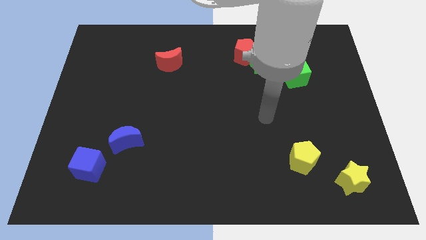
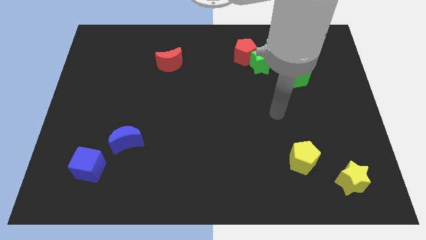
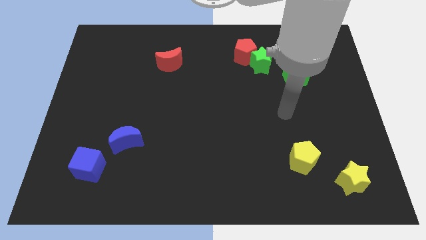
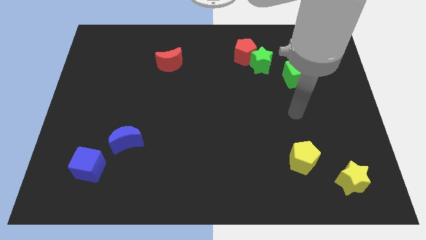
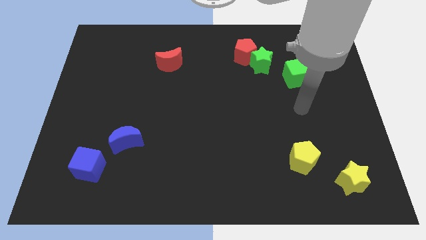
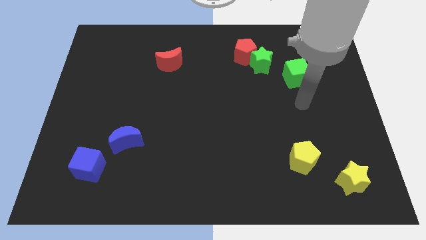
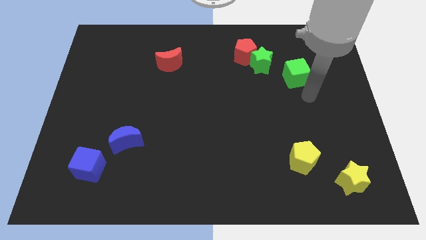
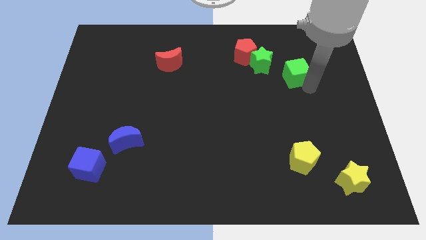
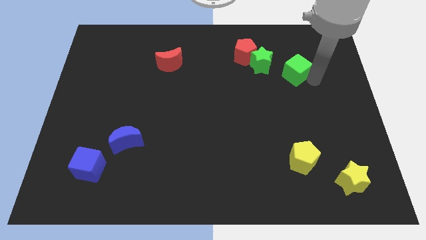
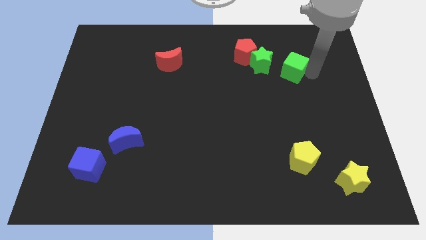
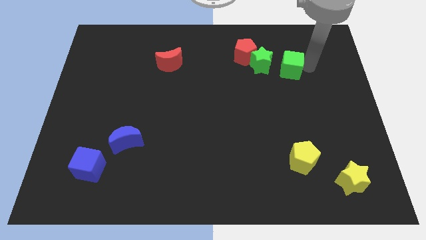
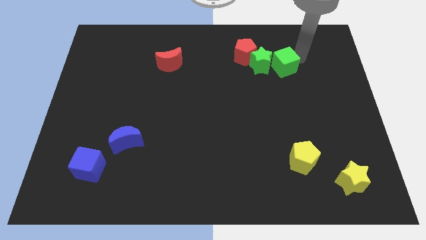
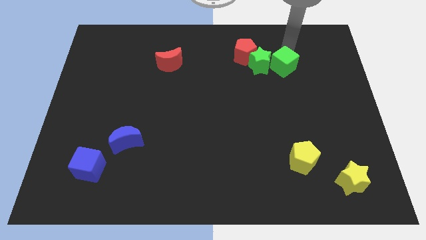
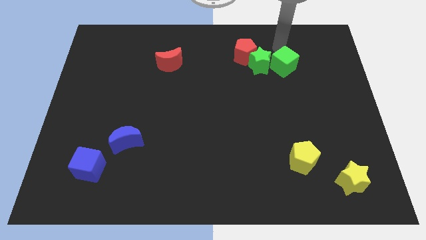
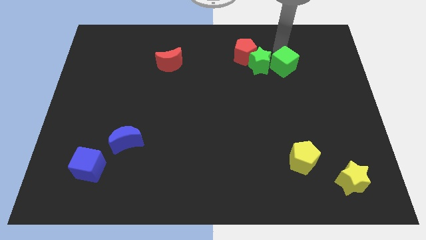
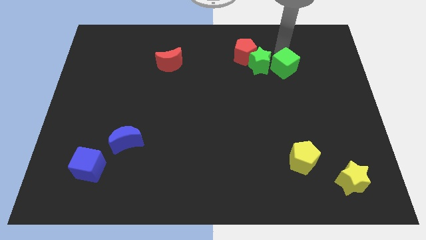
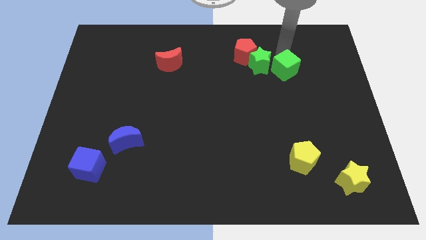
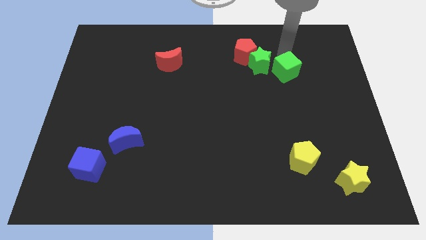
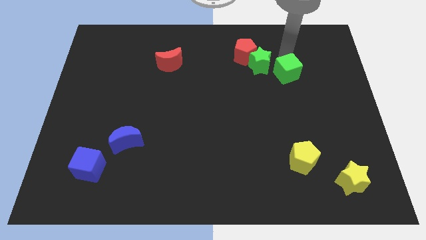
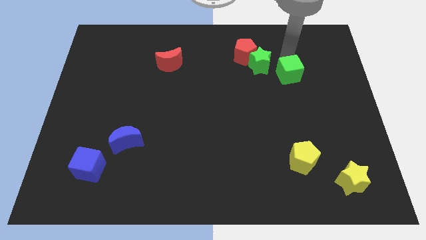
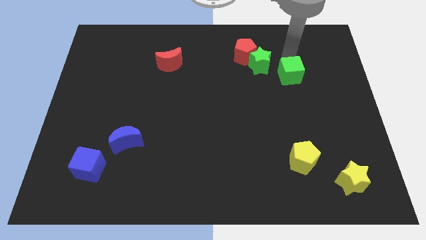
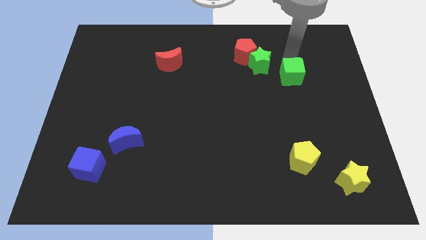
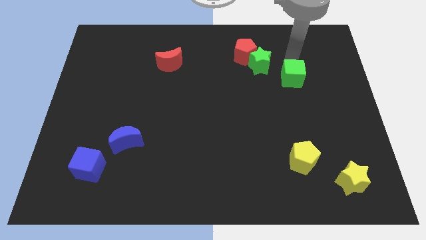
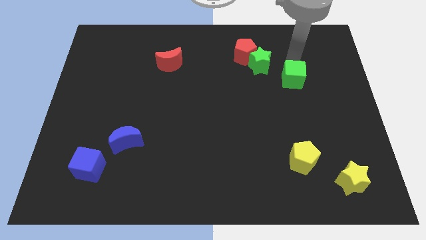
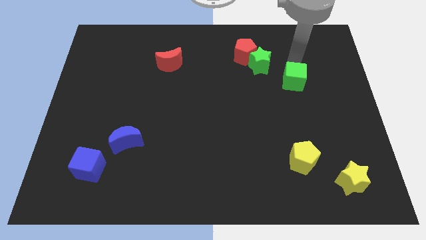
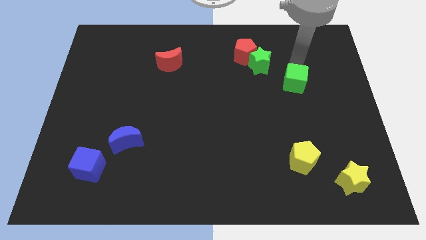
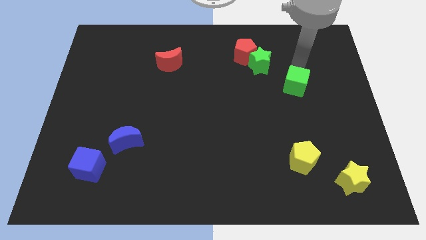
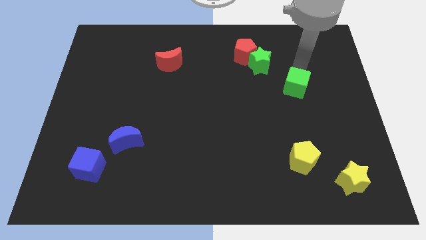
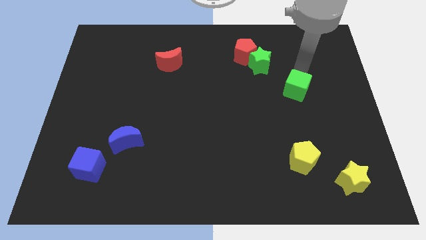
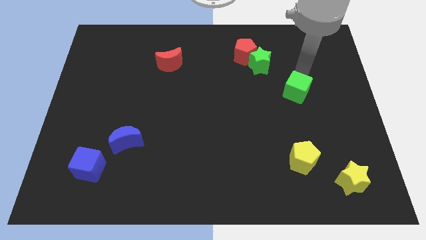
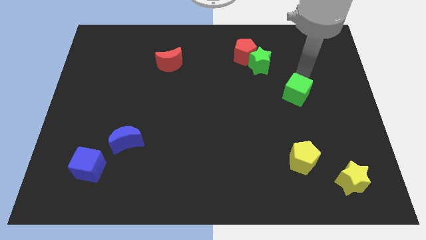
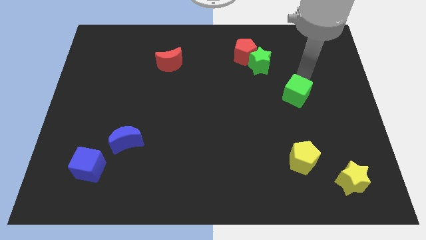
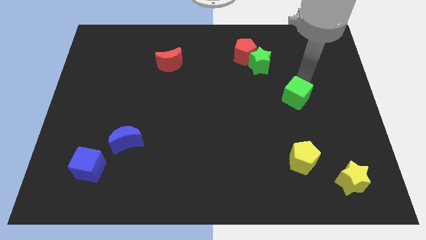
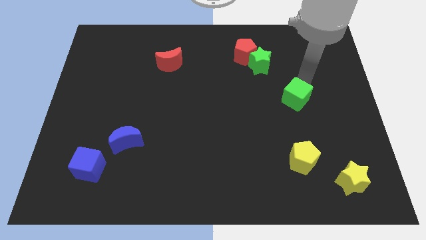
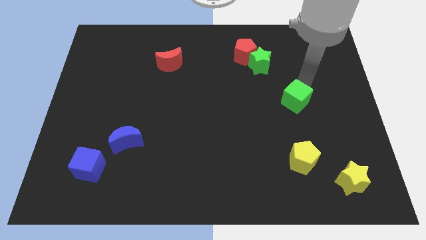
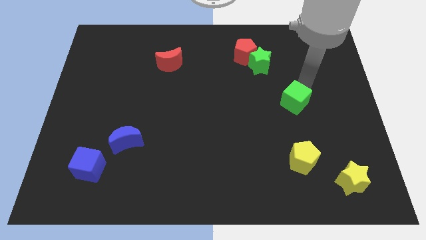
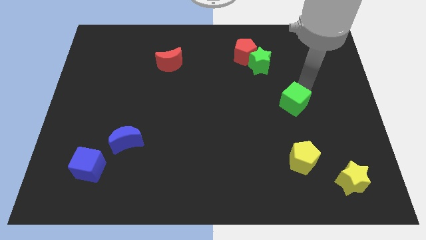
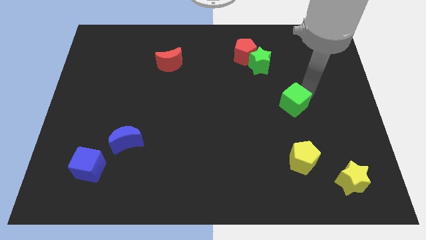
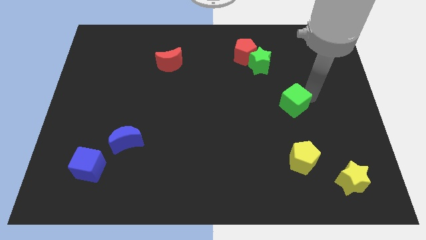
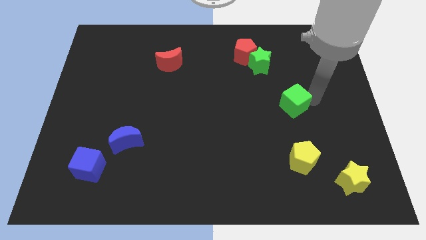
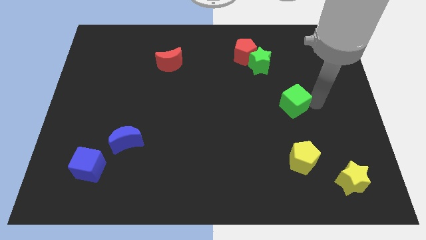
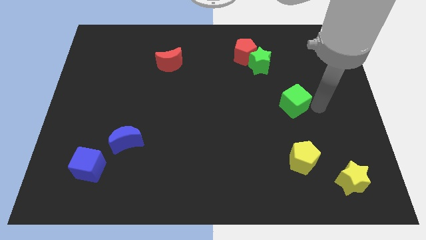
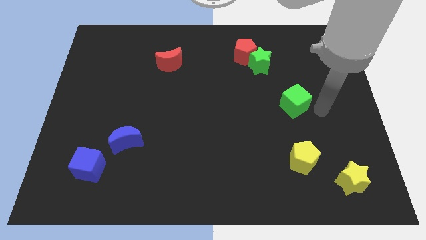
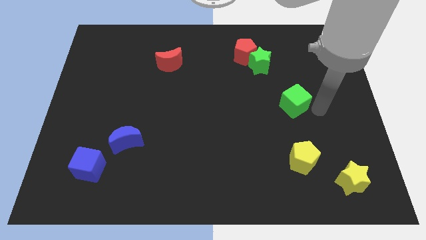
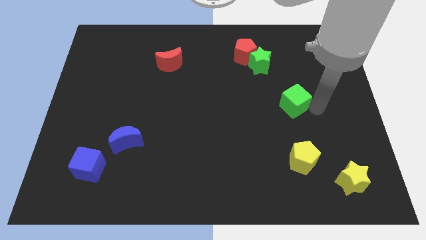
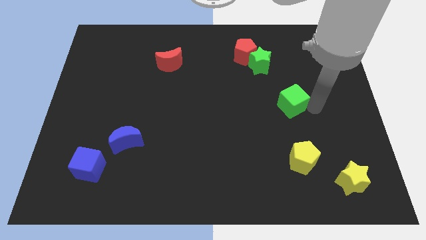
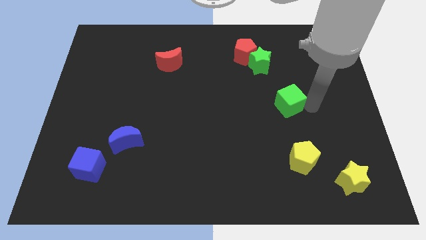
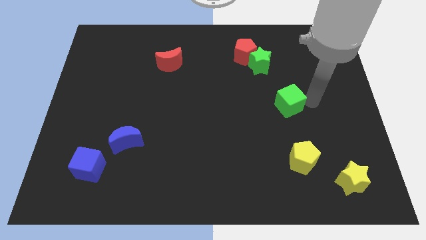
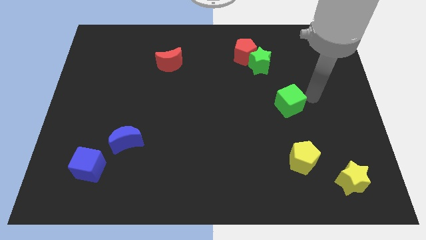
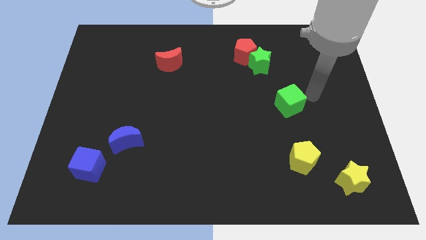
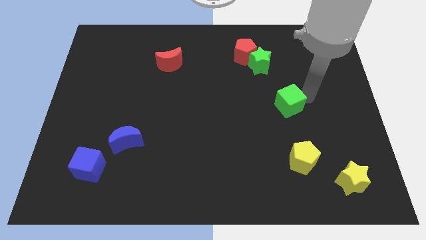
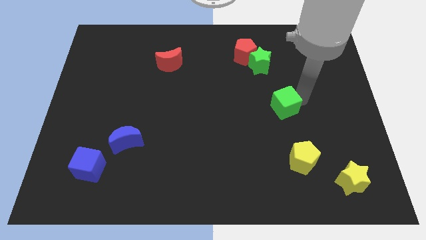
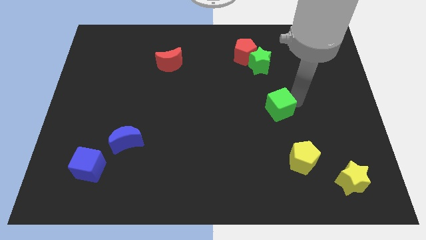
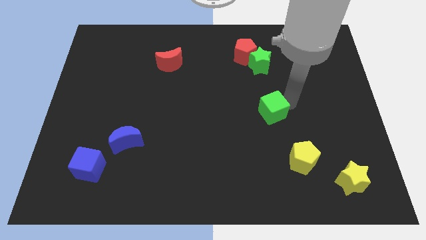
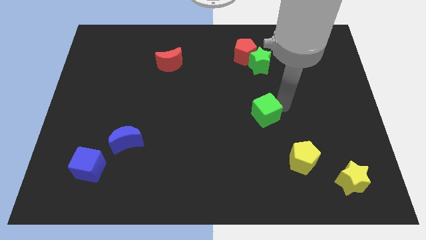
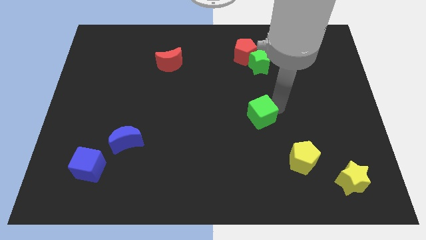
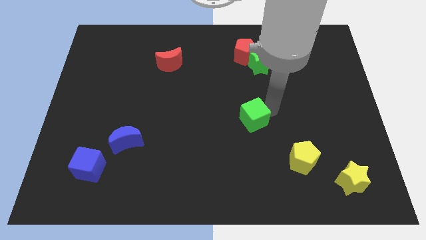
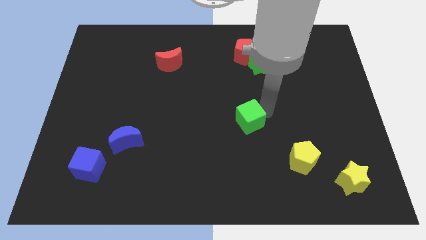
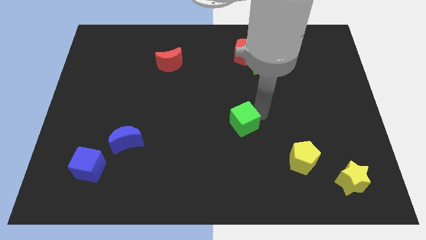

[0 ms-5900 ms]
slide the green cube downwards and then left

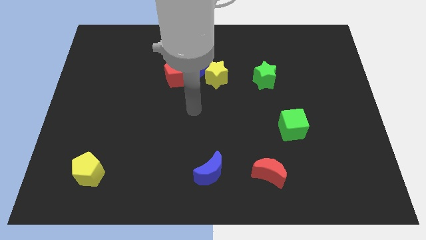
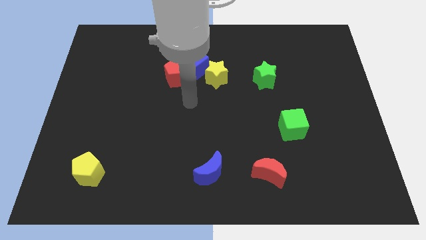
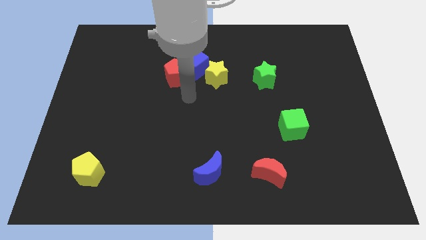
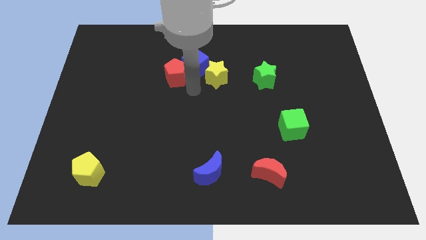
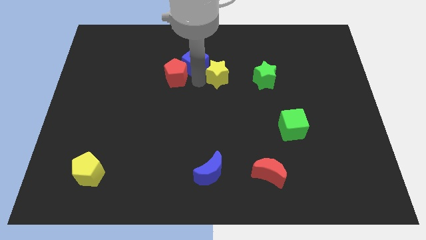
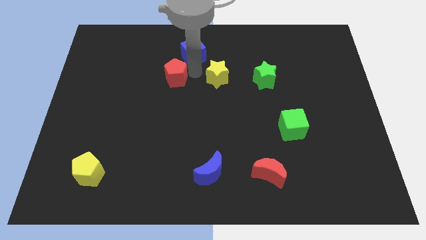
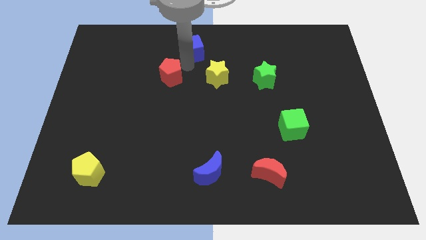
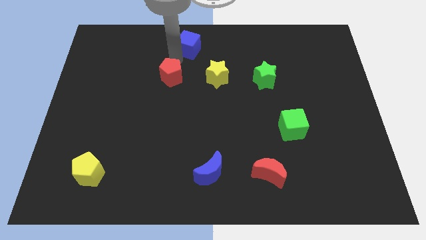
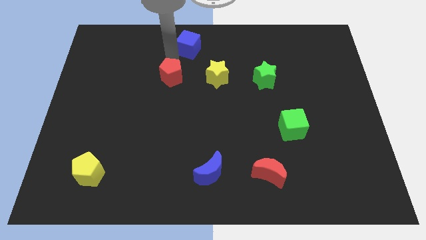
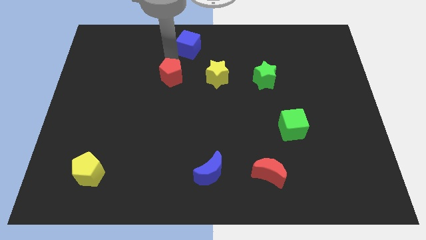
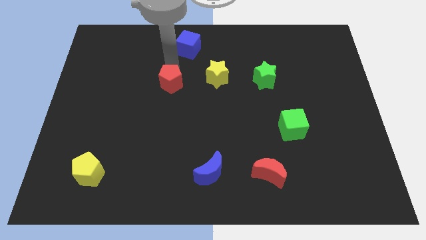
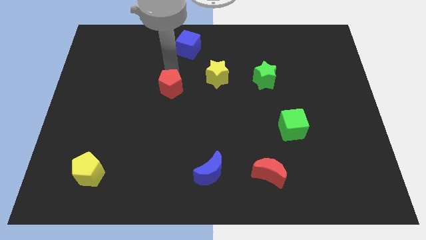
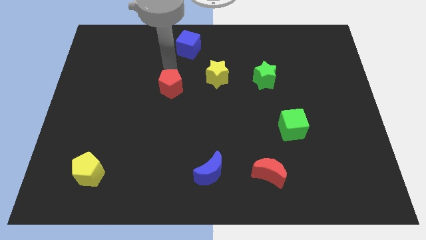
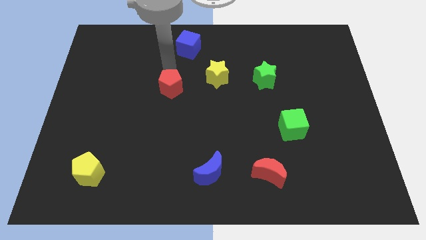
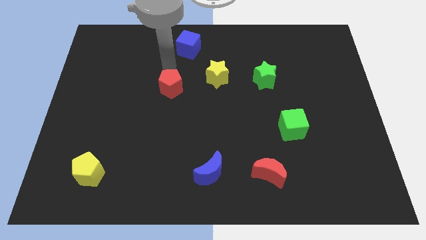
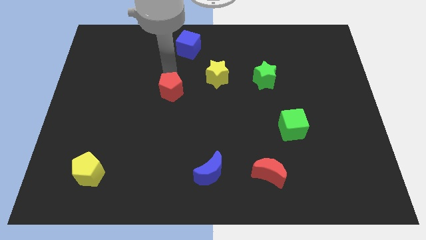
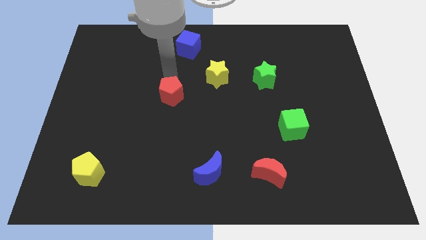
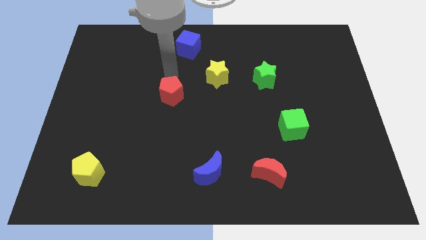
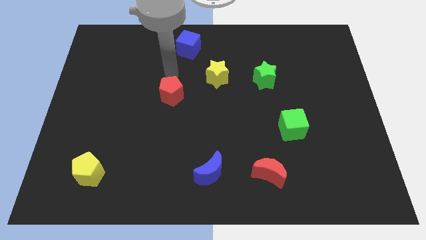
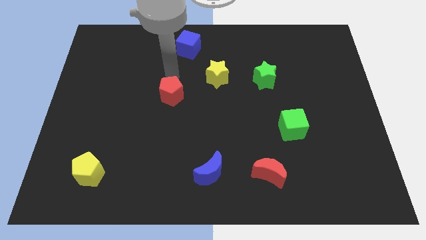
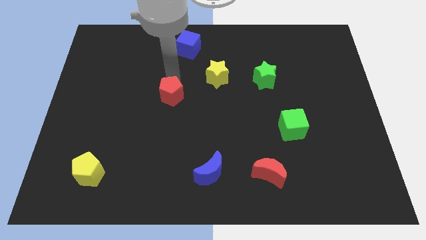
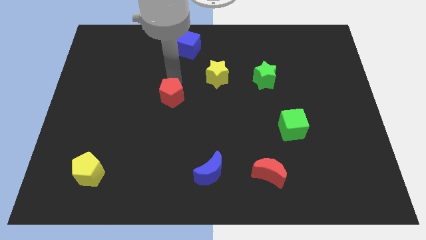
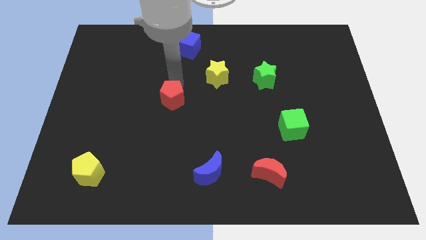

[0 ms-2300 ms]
push the red pentagon somewhat down
